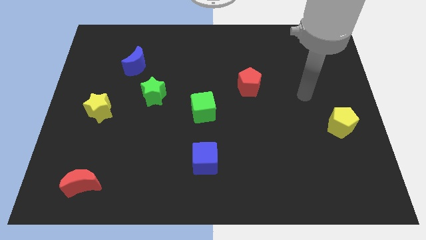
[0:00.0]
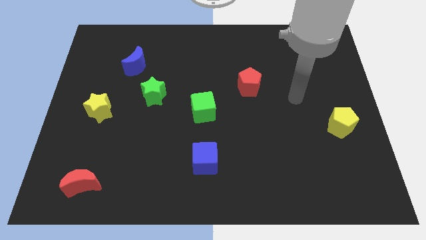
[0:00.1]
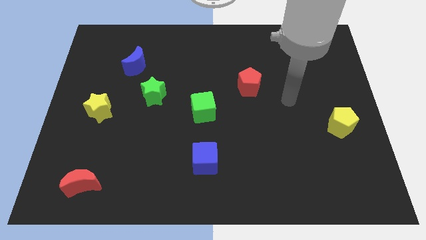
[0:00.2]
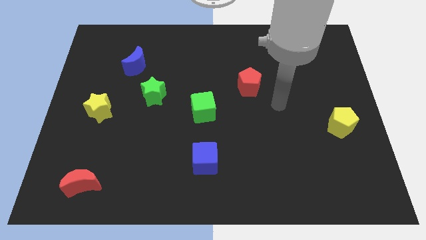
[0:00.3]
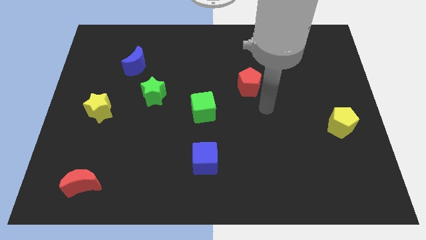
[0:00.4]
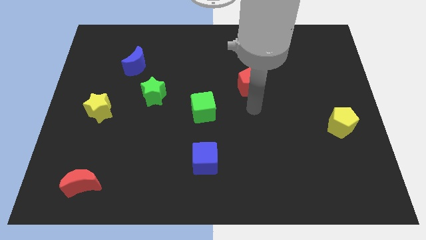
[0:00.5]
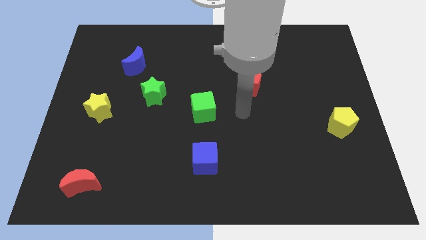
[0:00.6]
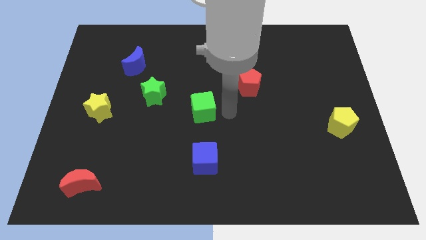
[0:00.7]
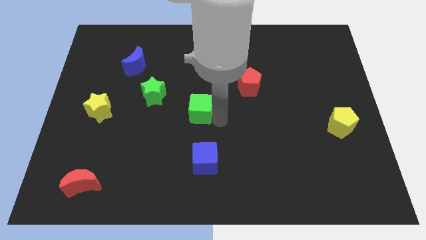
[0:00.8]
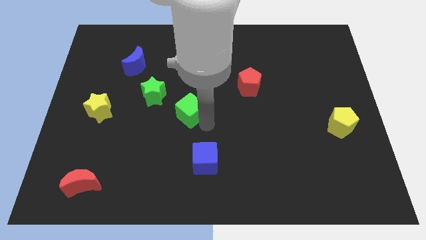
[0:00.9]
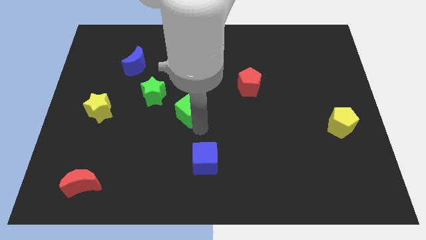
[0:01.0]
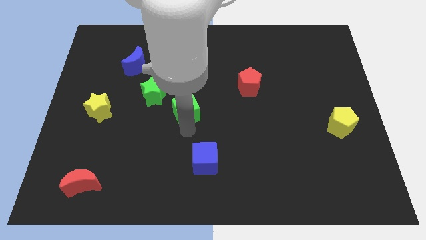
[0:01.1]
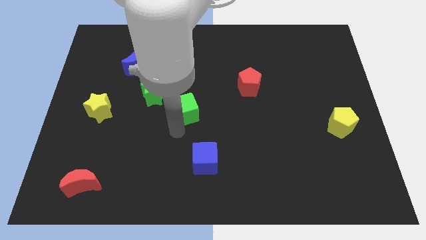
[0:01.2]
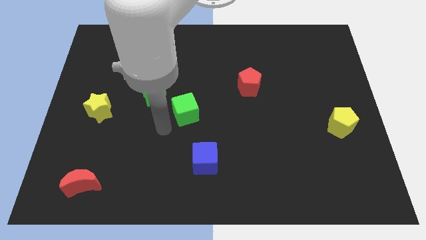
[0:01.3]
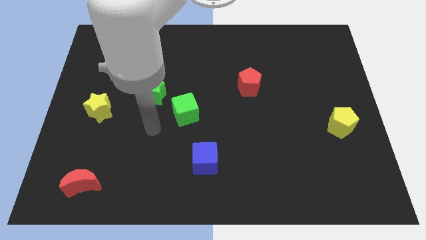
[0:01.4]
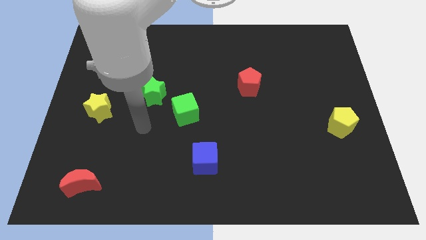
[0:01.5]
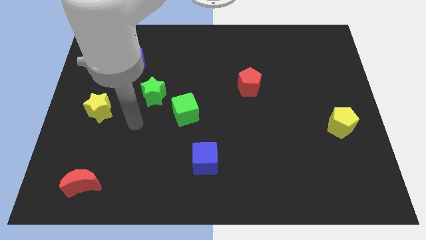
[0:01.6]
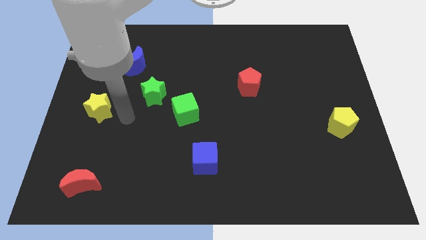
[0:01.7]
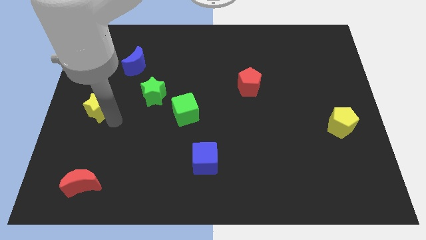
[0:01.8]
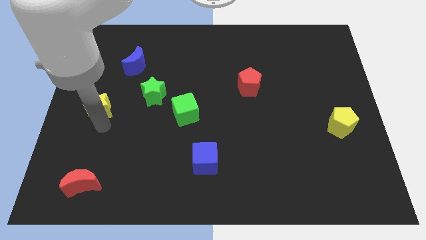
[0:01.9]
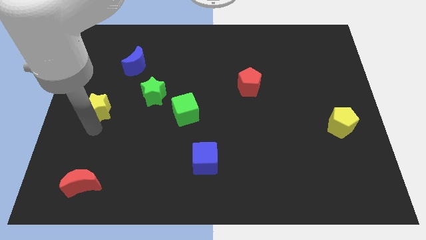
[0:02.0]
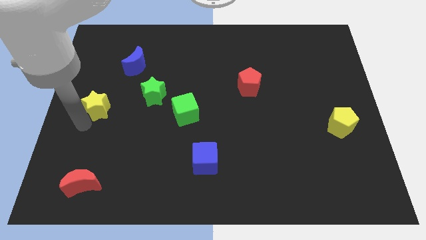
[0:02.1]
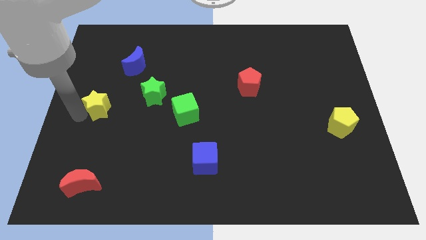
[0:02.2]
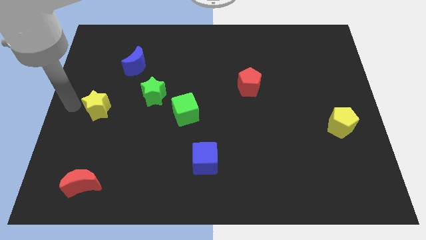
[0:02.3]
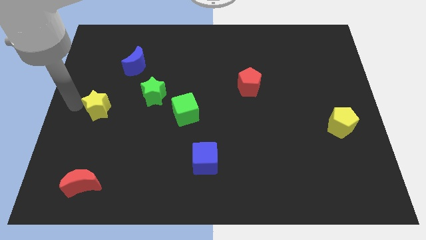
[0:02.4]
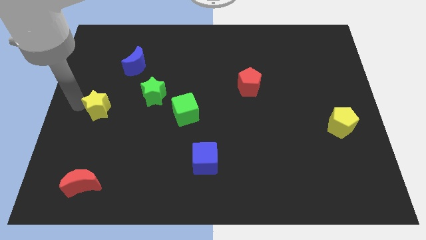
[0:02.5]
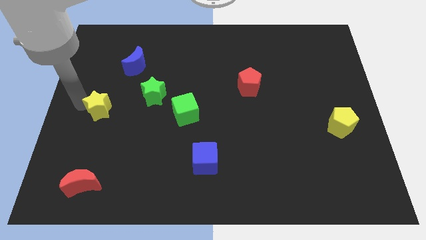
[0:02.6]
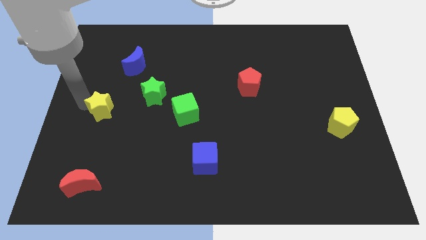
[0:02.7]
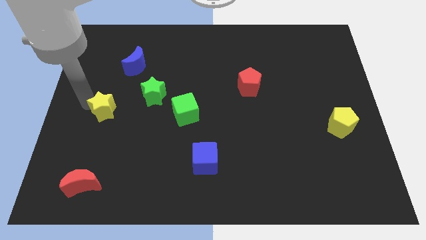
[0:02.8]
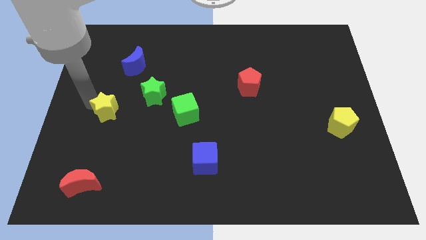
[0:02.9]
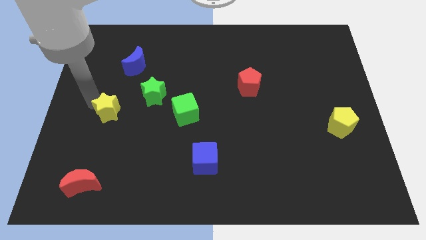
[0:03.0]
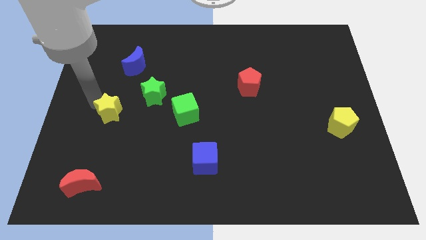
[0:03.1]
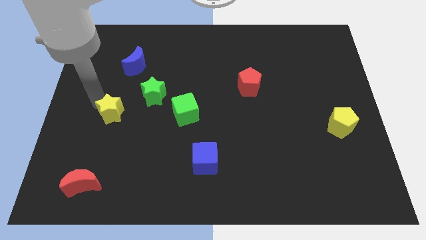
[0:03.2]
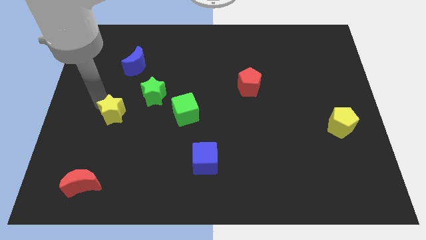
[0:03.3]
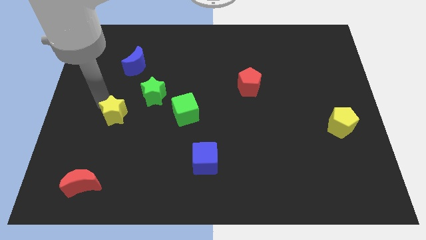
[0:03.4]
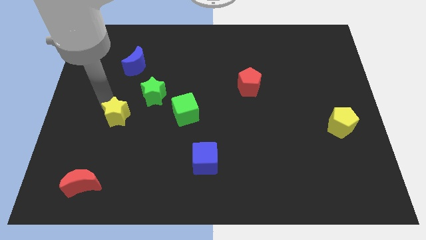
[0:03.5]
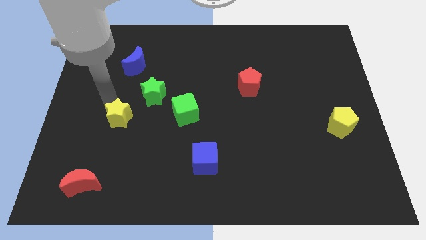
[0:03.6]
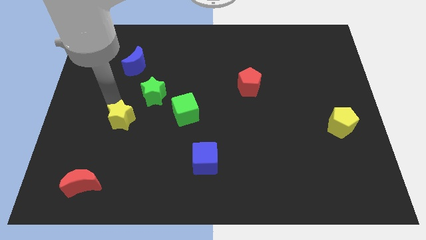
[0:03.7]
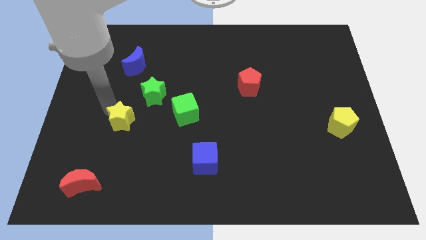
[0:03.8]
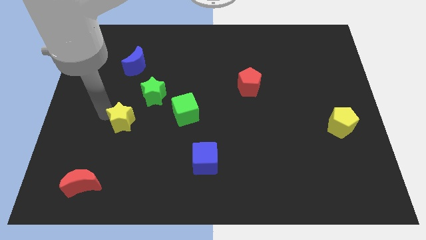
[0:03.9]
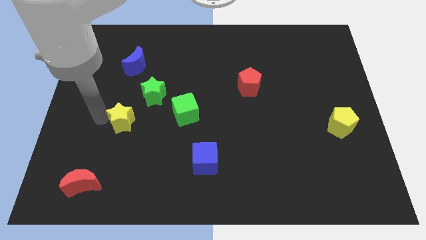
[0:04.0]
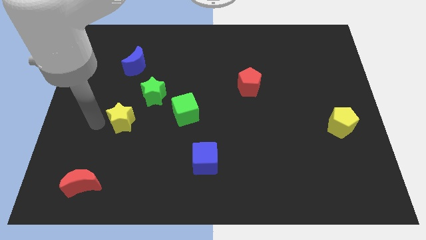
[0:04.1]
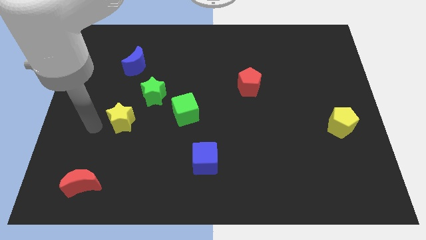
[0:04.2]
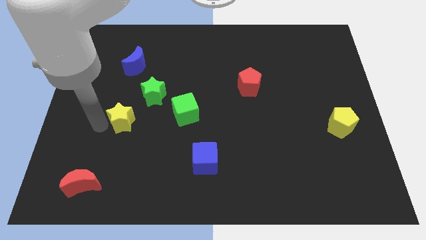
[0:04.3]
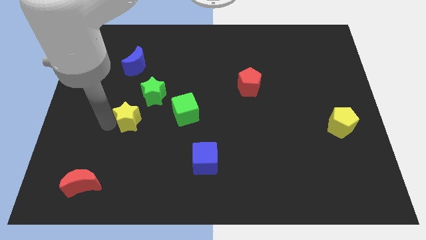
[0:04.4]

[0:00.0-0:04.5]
move the yellow star right a bit

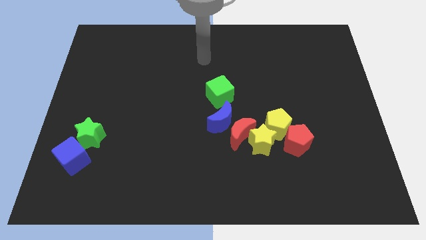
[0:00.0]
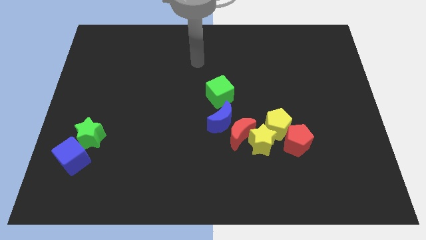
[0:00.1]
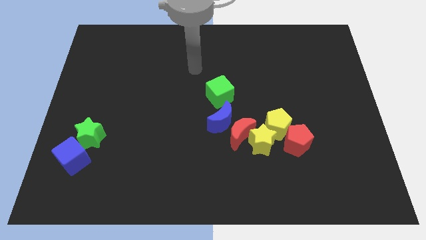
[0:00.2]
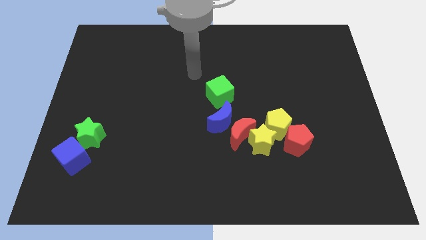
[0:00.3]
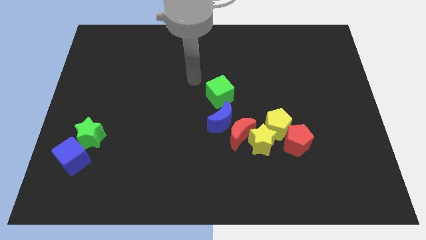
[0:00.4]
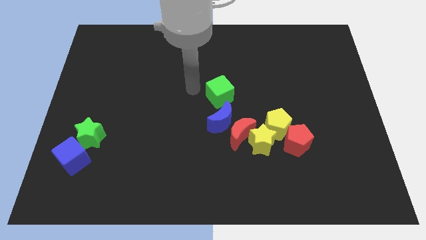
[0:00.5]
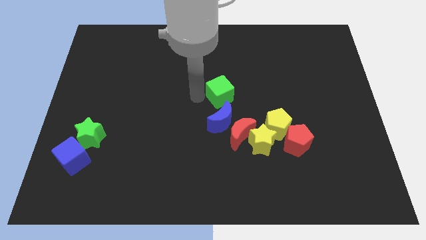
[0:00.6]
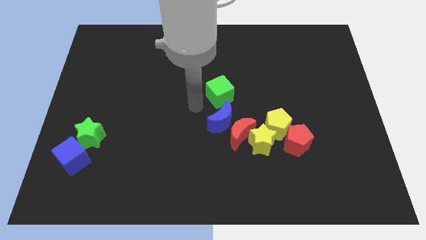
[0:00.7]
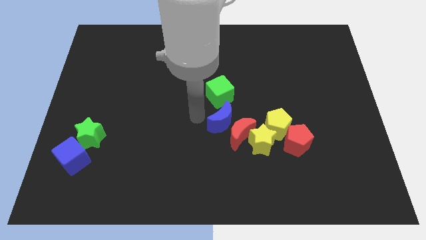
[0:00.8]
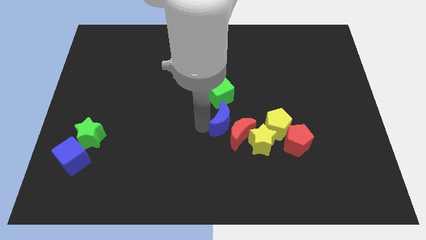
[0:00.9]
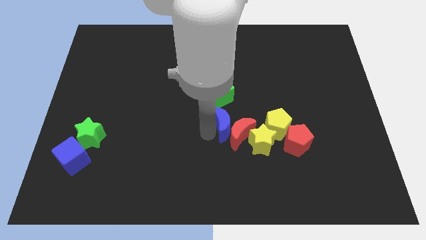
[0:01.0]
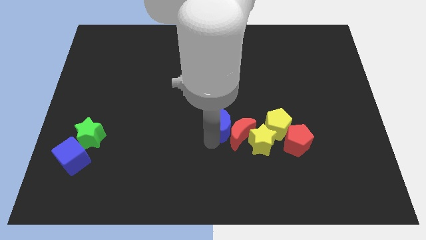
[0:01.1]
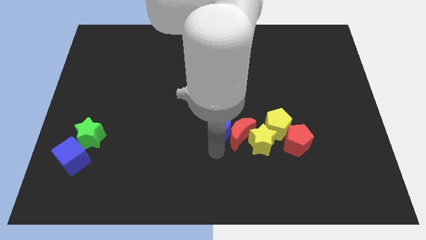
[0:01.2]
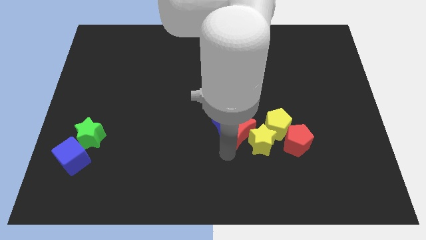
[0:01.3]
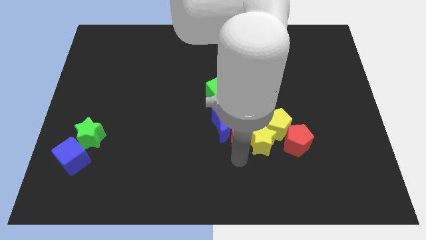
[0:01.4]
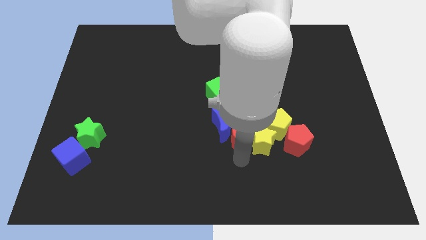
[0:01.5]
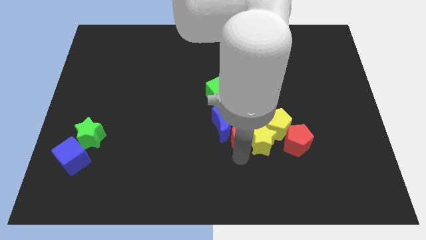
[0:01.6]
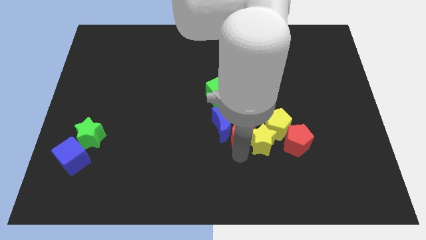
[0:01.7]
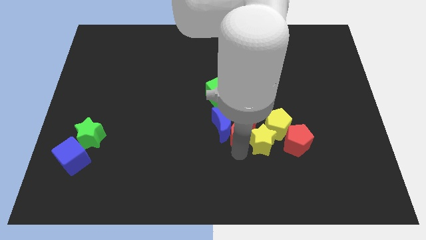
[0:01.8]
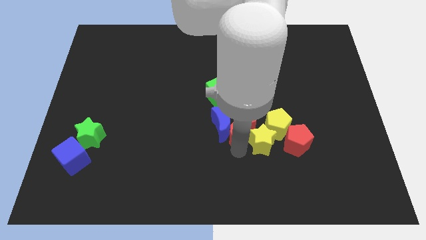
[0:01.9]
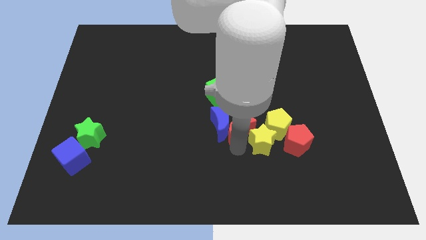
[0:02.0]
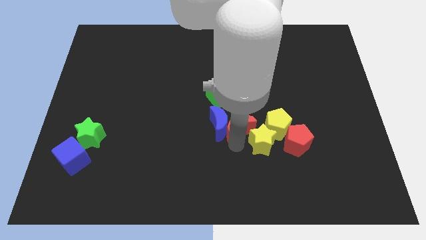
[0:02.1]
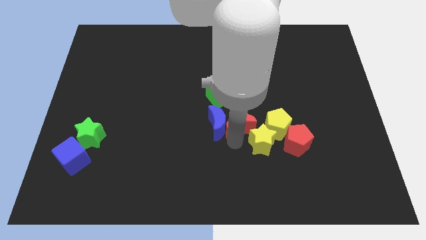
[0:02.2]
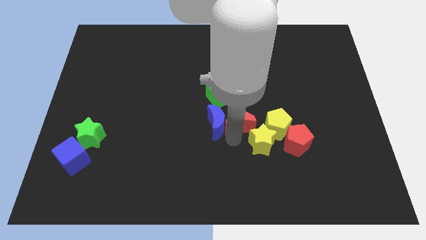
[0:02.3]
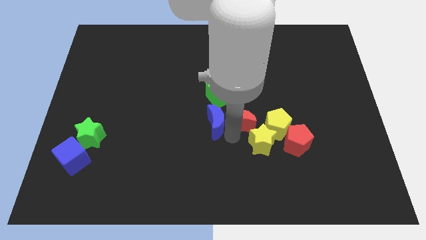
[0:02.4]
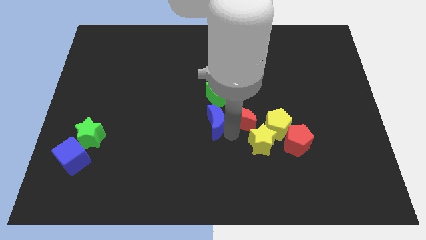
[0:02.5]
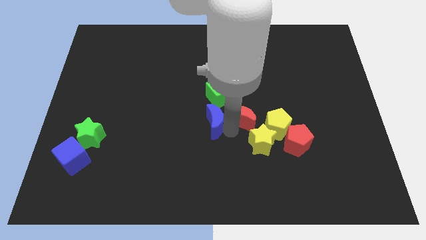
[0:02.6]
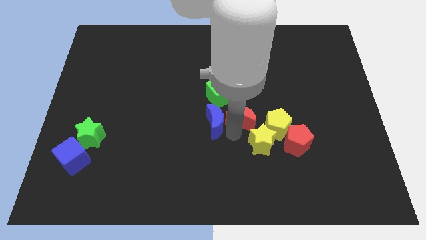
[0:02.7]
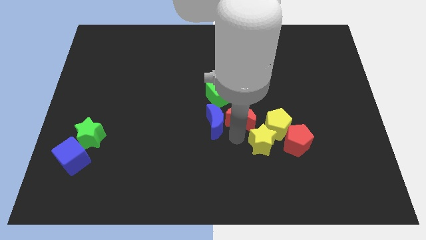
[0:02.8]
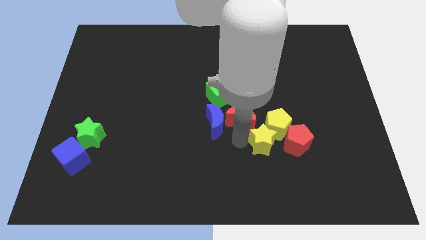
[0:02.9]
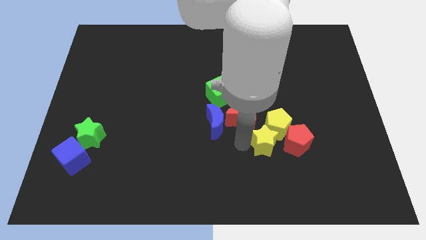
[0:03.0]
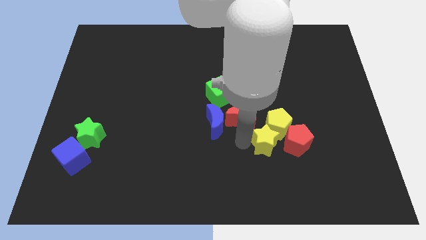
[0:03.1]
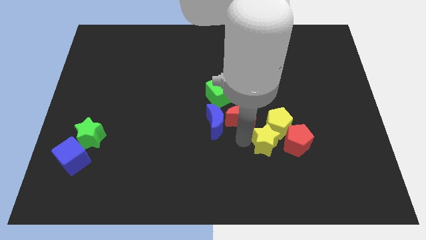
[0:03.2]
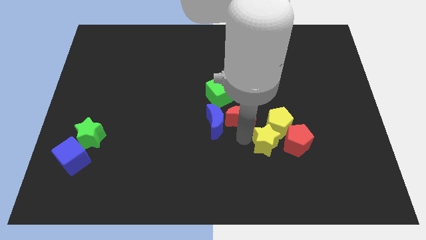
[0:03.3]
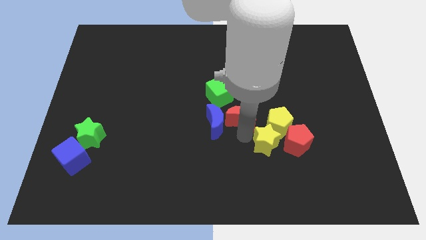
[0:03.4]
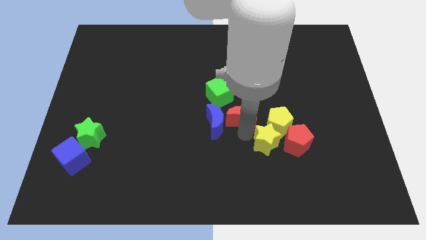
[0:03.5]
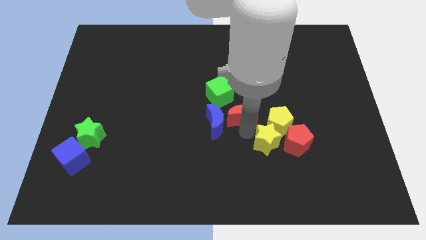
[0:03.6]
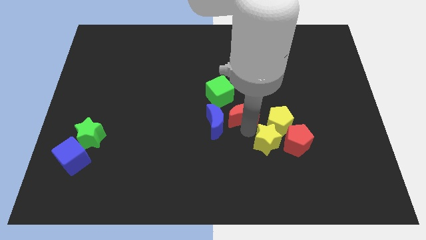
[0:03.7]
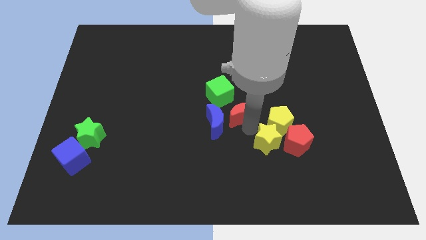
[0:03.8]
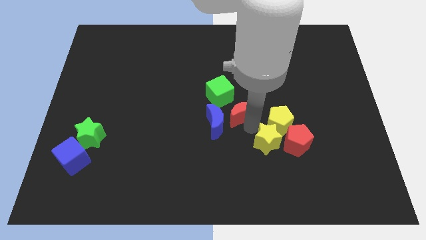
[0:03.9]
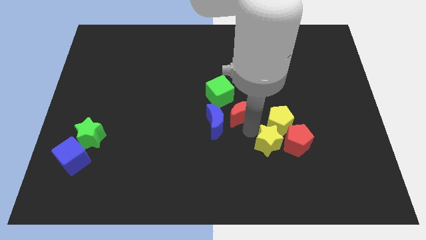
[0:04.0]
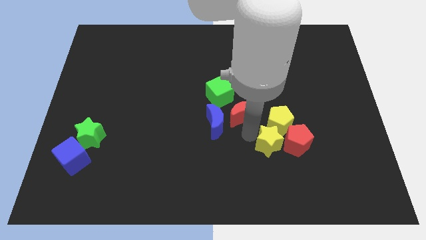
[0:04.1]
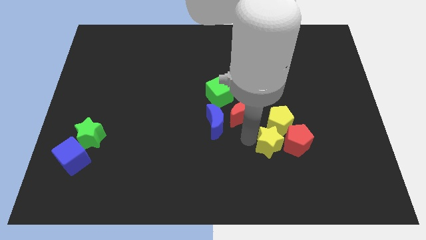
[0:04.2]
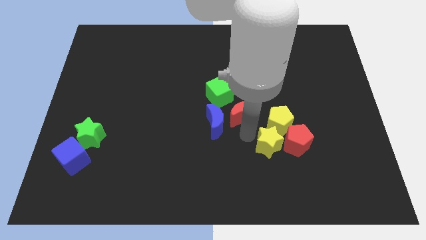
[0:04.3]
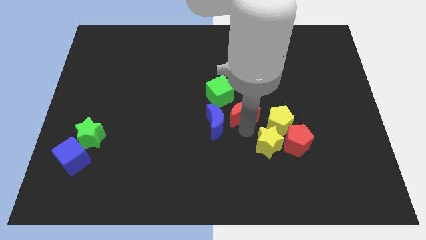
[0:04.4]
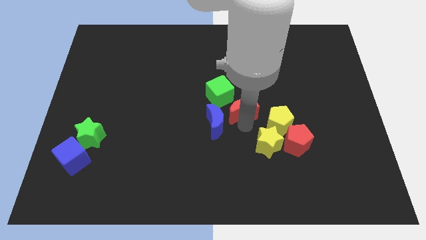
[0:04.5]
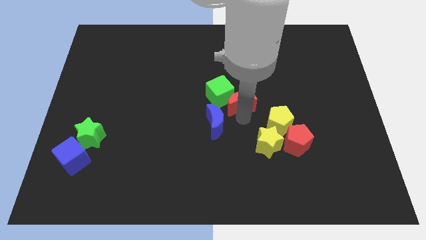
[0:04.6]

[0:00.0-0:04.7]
slightly slide the red moon upwards
